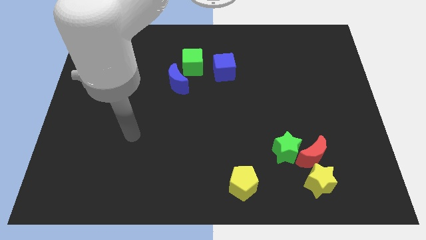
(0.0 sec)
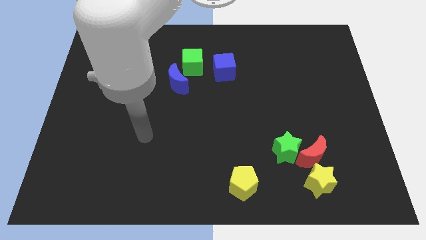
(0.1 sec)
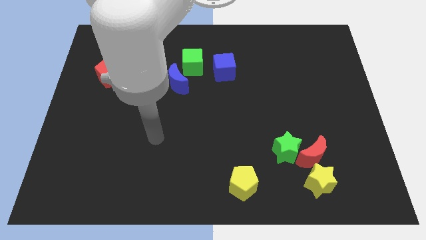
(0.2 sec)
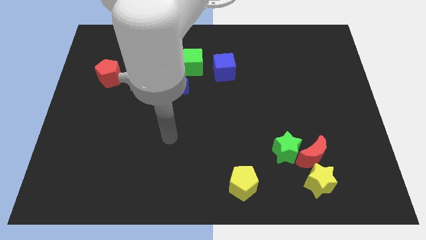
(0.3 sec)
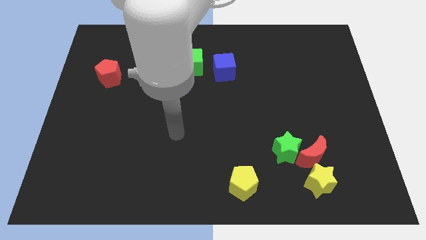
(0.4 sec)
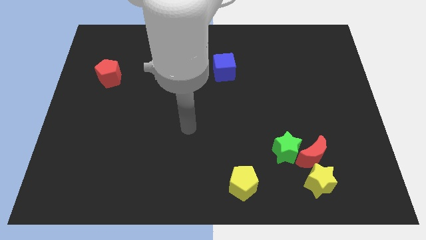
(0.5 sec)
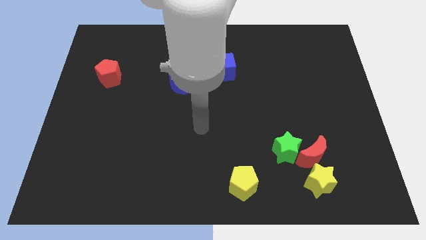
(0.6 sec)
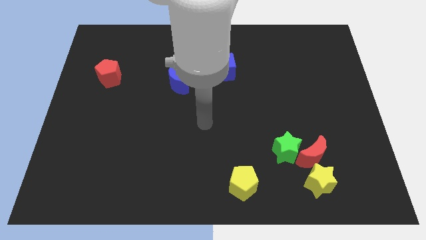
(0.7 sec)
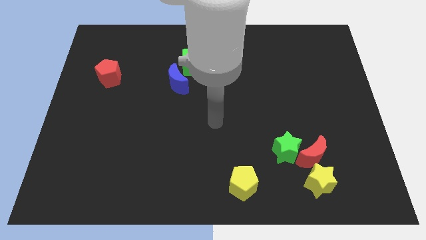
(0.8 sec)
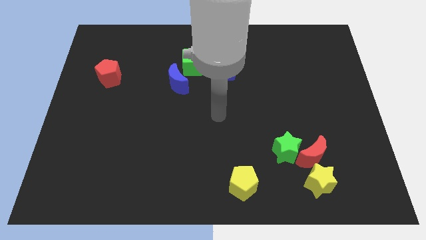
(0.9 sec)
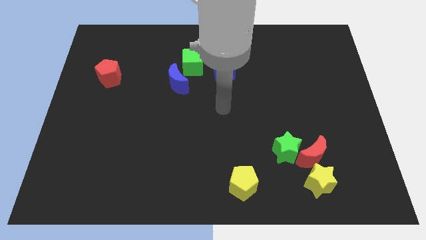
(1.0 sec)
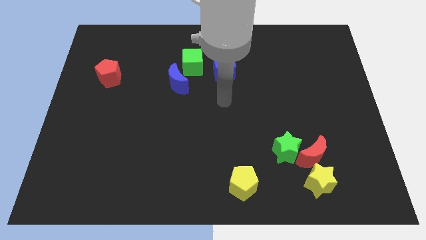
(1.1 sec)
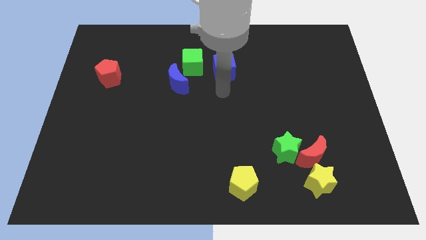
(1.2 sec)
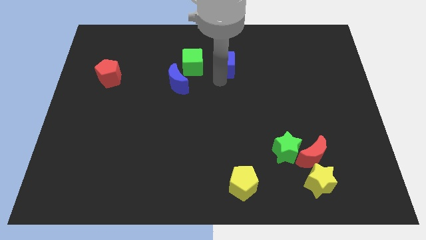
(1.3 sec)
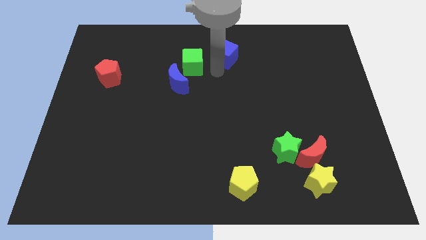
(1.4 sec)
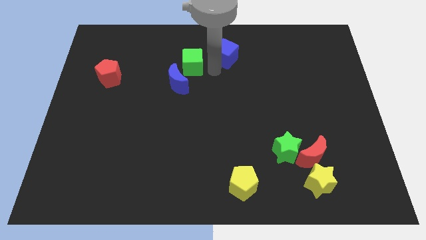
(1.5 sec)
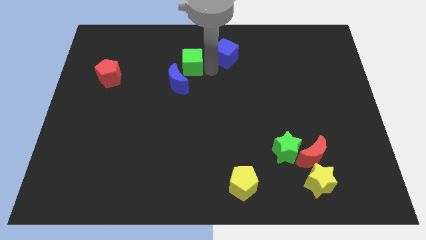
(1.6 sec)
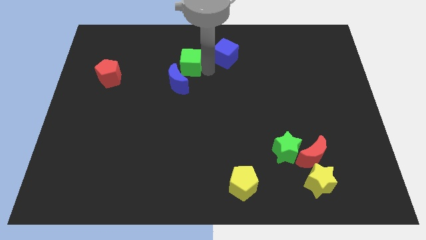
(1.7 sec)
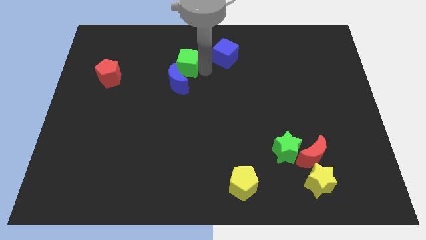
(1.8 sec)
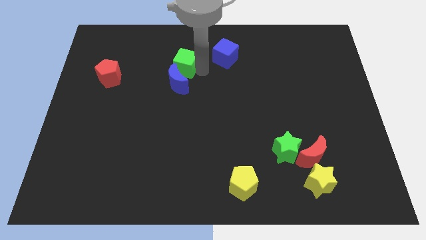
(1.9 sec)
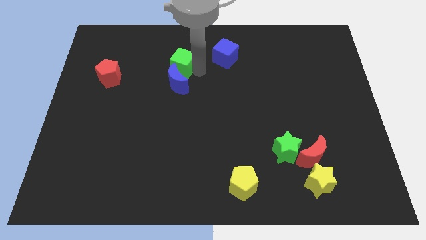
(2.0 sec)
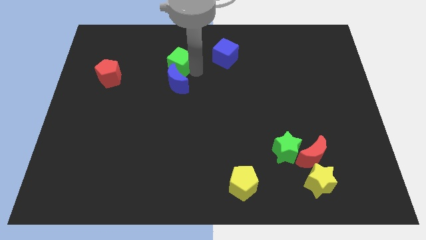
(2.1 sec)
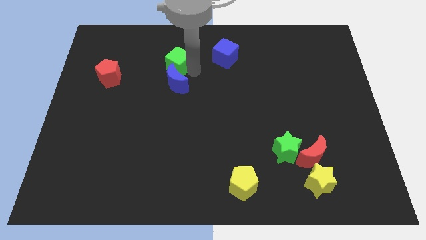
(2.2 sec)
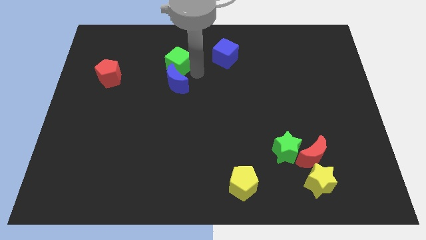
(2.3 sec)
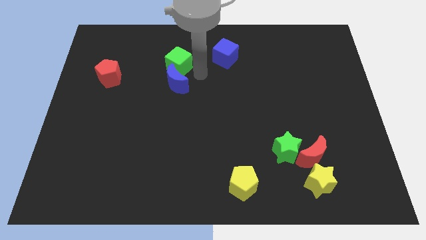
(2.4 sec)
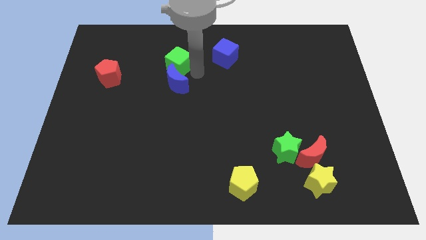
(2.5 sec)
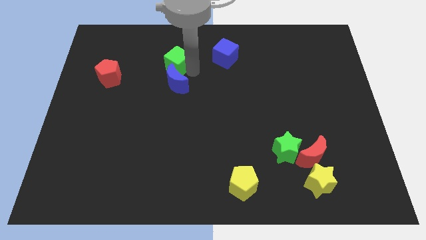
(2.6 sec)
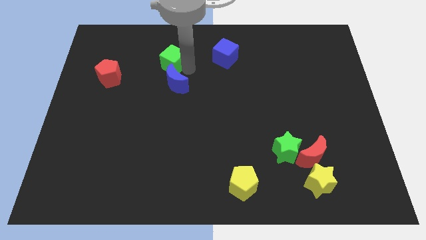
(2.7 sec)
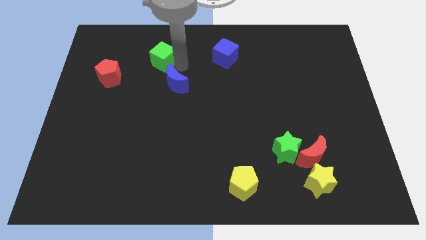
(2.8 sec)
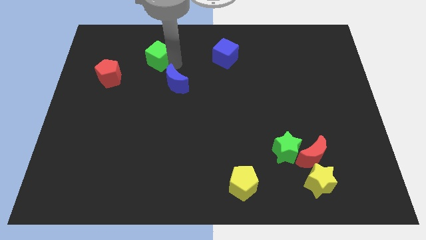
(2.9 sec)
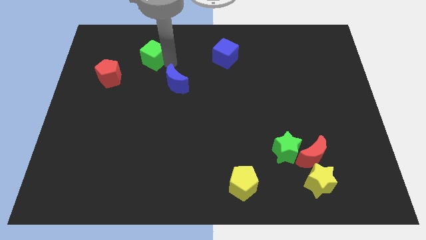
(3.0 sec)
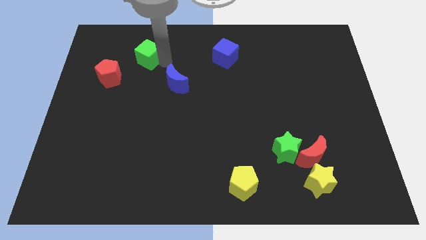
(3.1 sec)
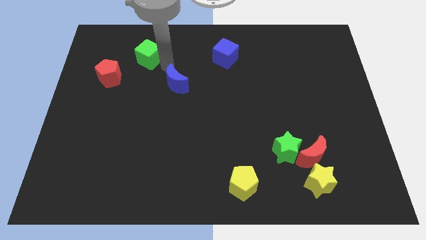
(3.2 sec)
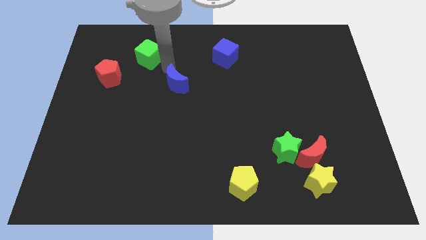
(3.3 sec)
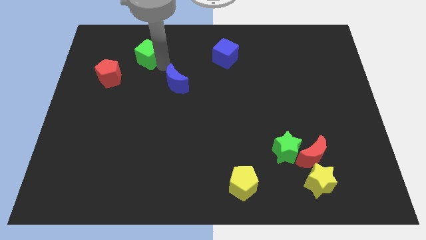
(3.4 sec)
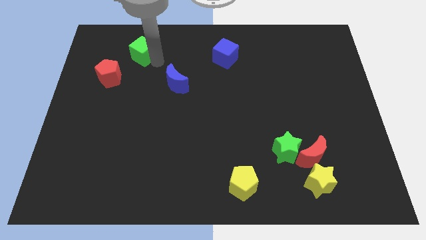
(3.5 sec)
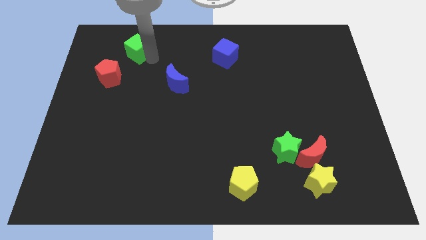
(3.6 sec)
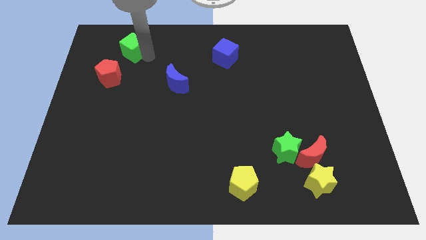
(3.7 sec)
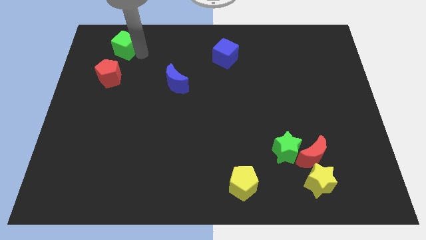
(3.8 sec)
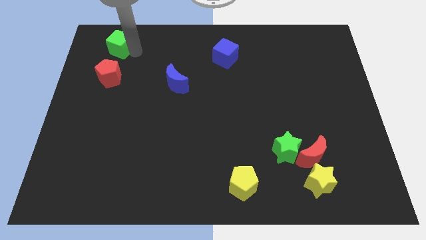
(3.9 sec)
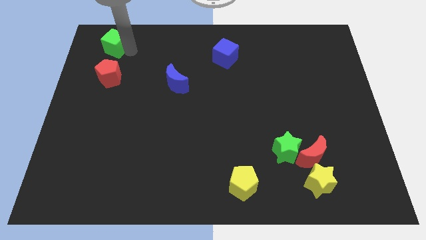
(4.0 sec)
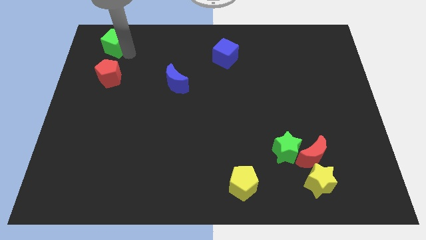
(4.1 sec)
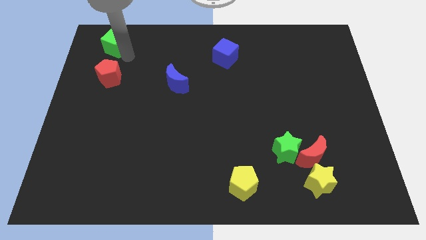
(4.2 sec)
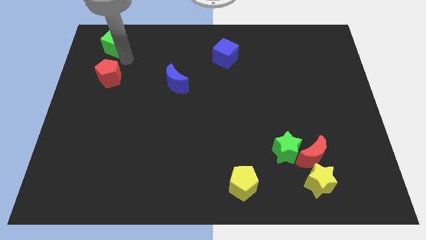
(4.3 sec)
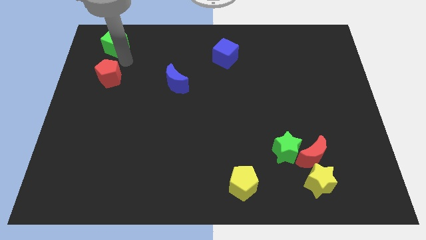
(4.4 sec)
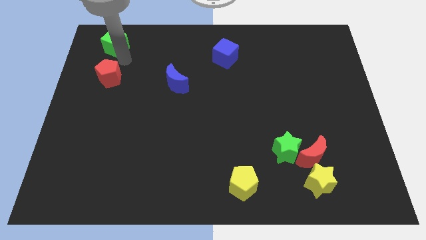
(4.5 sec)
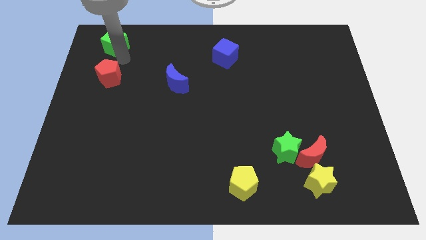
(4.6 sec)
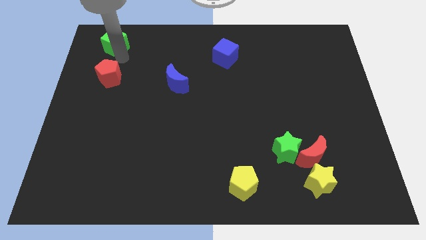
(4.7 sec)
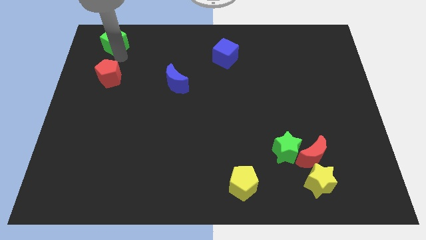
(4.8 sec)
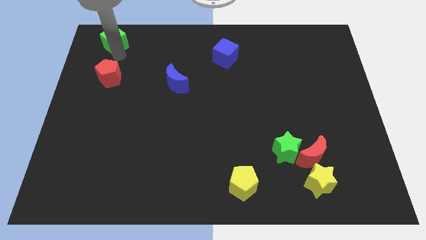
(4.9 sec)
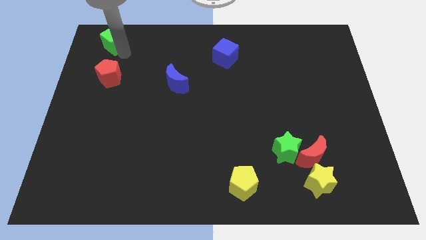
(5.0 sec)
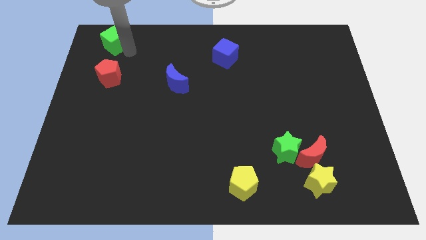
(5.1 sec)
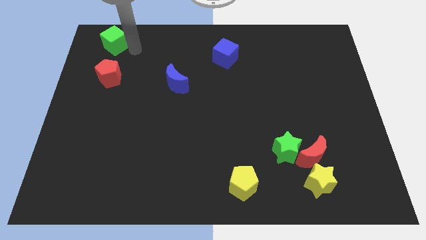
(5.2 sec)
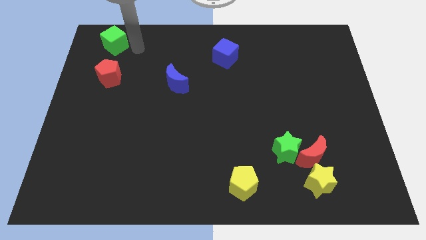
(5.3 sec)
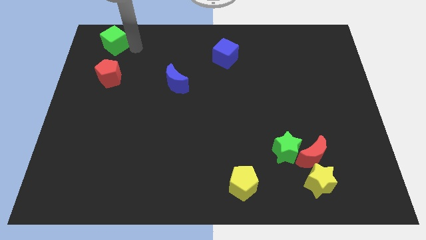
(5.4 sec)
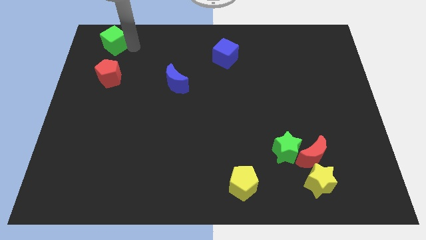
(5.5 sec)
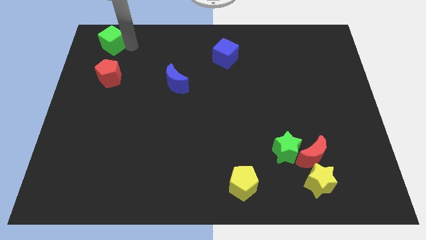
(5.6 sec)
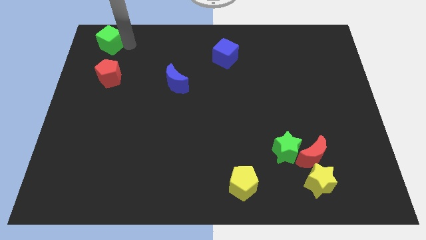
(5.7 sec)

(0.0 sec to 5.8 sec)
push the green cube to the upper left corner

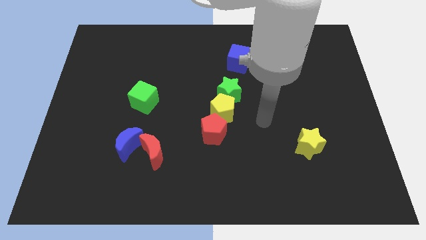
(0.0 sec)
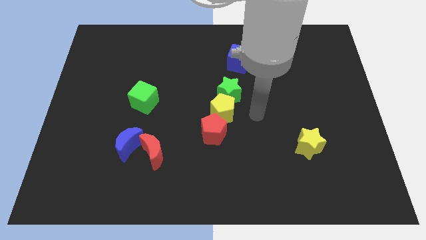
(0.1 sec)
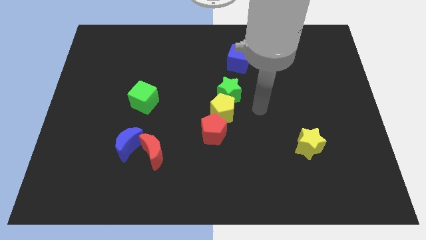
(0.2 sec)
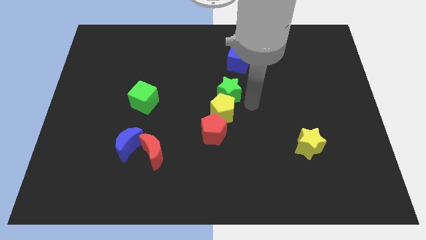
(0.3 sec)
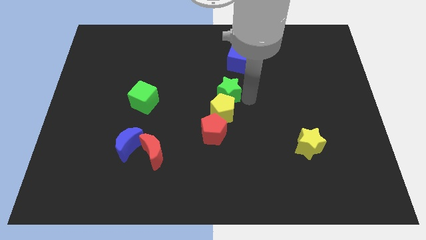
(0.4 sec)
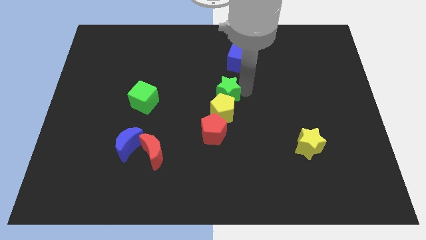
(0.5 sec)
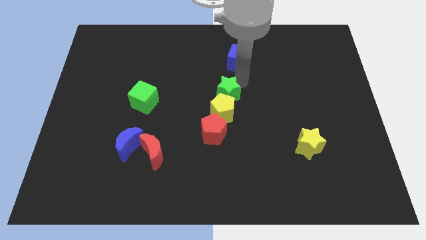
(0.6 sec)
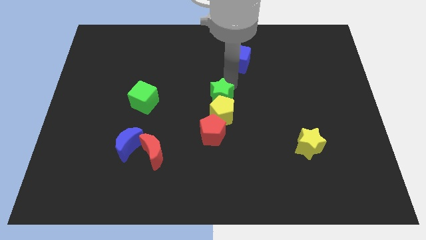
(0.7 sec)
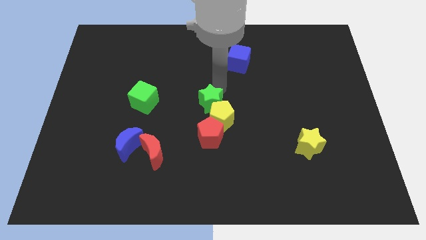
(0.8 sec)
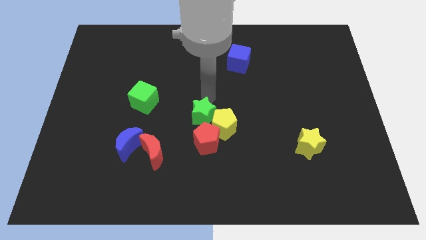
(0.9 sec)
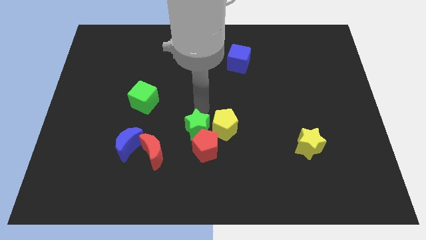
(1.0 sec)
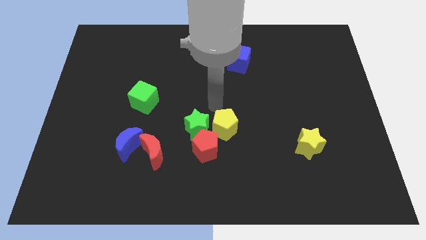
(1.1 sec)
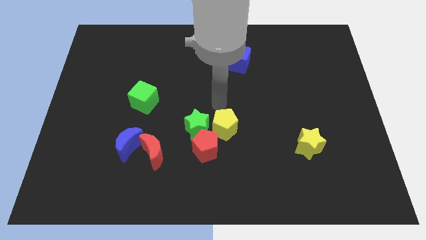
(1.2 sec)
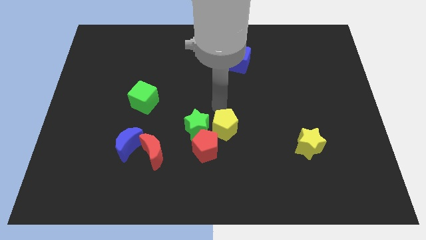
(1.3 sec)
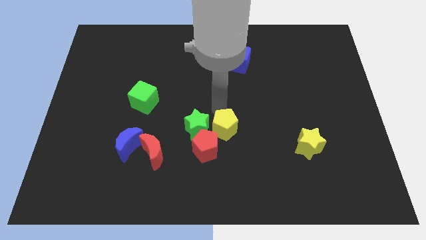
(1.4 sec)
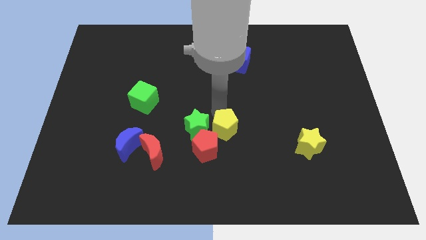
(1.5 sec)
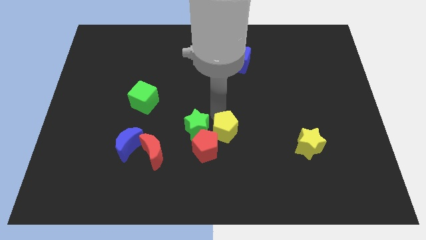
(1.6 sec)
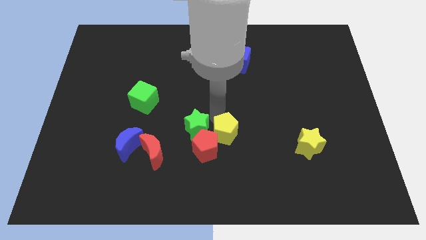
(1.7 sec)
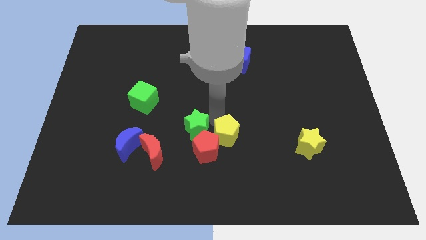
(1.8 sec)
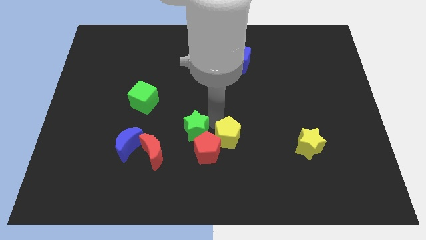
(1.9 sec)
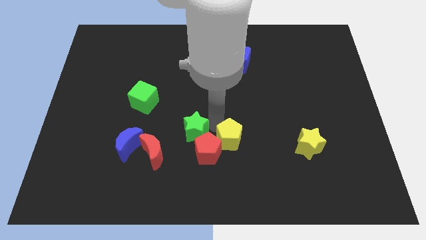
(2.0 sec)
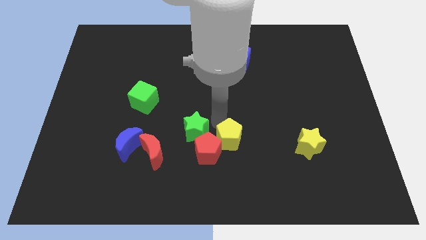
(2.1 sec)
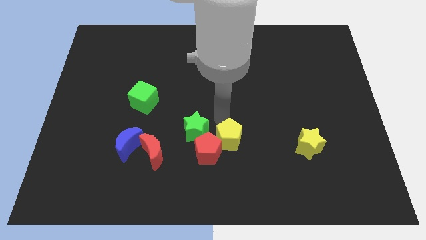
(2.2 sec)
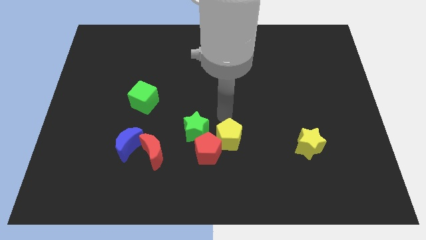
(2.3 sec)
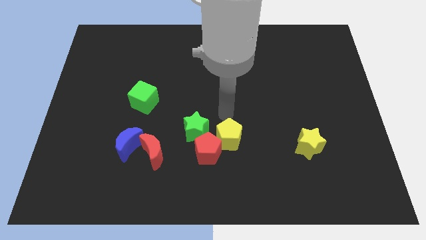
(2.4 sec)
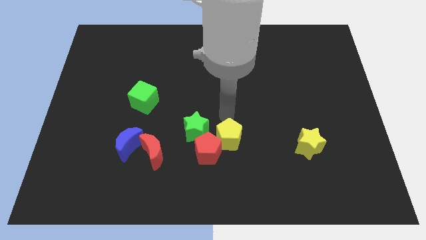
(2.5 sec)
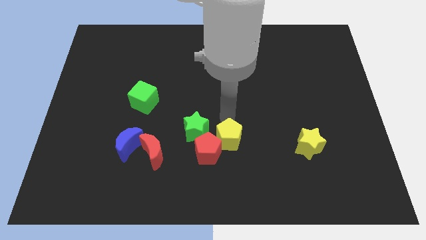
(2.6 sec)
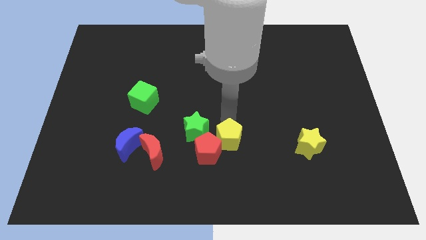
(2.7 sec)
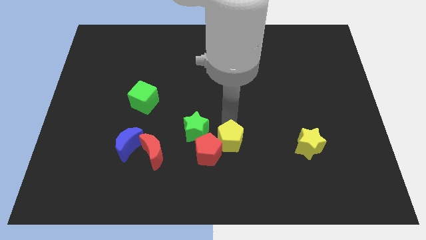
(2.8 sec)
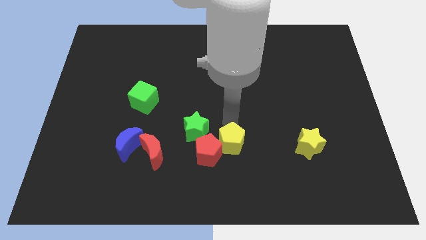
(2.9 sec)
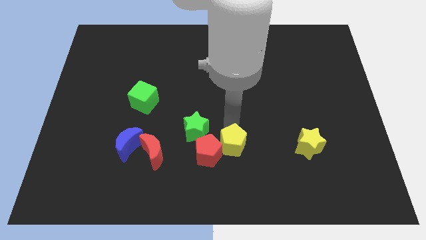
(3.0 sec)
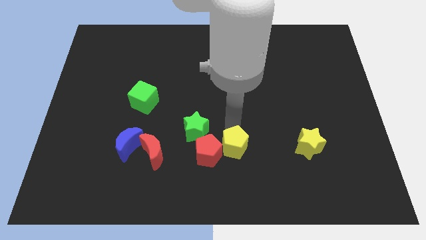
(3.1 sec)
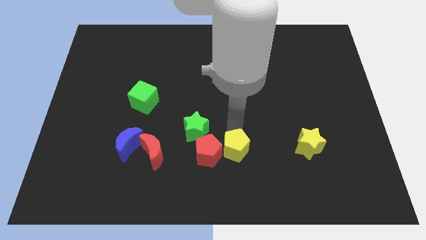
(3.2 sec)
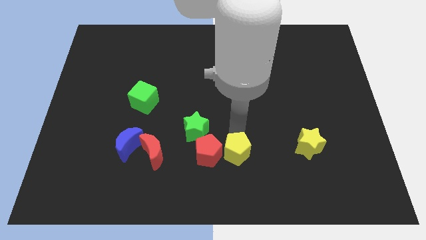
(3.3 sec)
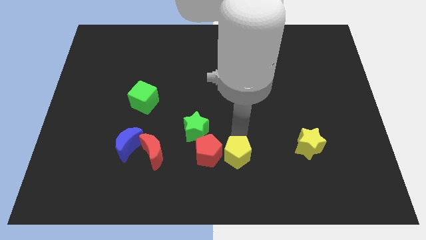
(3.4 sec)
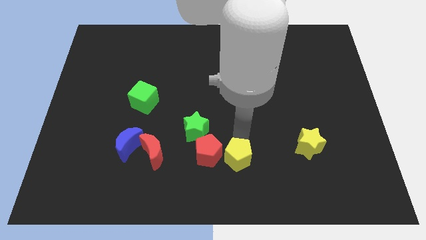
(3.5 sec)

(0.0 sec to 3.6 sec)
move the yellow pentagon to the bottom
